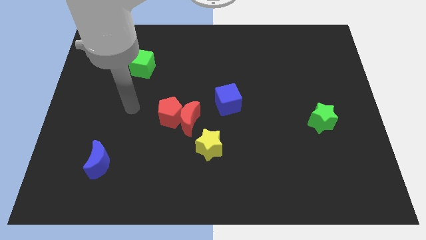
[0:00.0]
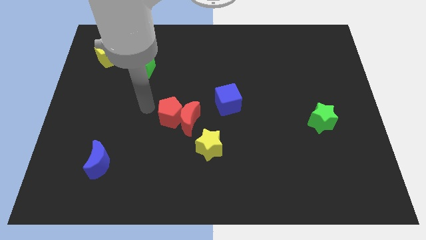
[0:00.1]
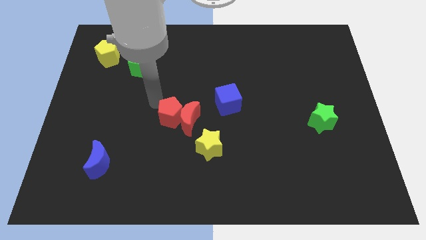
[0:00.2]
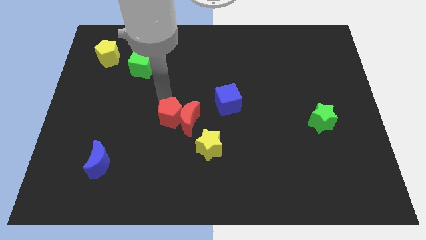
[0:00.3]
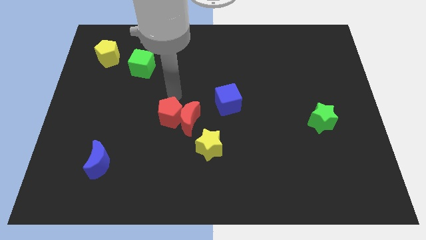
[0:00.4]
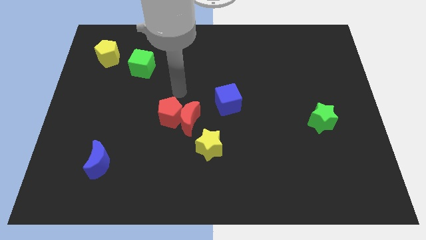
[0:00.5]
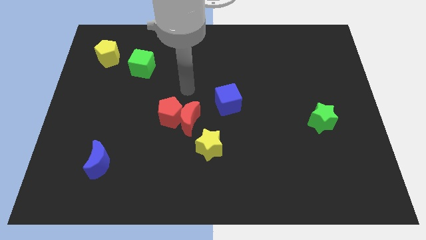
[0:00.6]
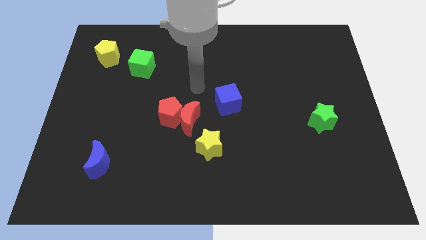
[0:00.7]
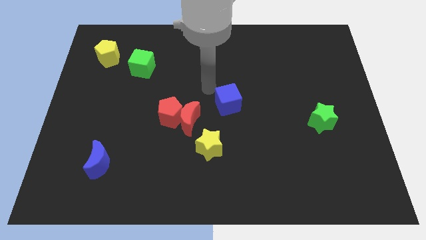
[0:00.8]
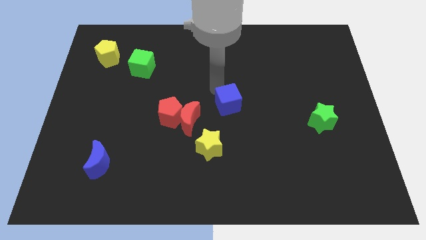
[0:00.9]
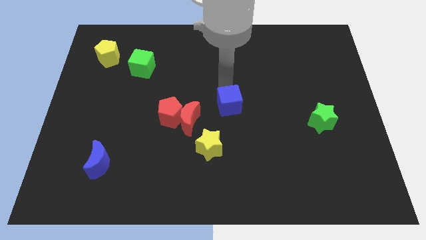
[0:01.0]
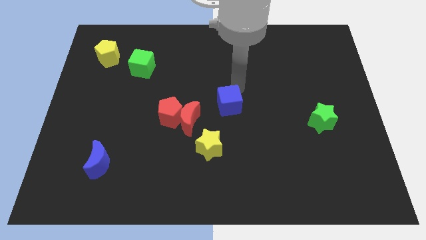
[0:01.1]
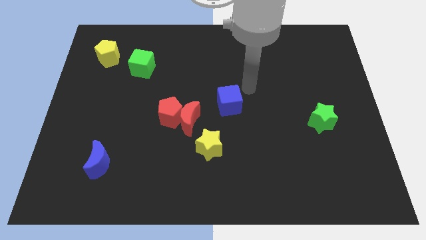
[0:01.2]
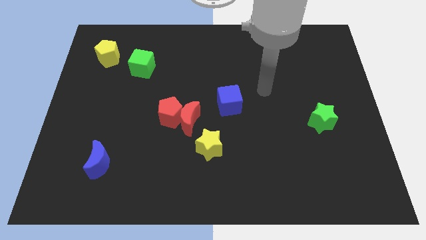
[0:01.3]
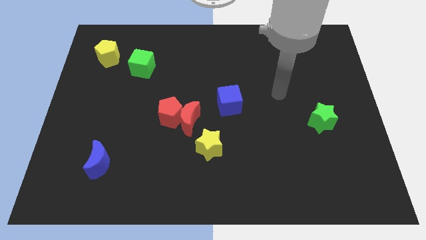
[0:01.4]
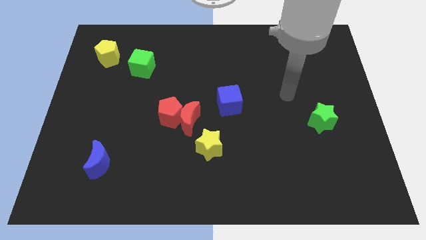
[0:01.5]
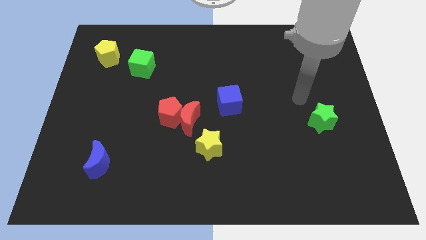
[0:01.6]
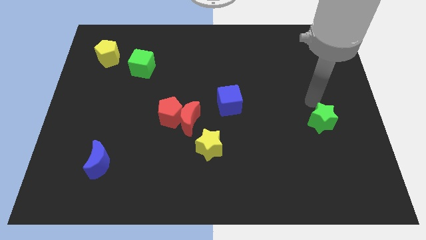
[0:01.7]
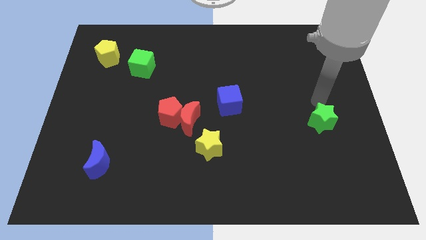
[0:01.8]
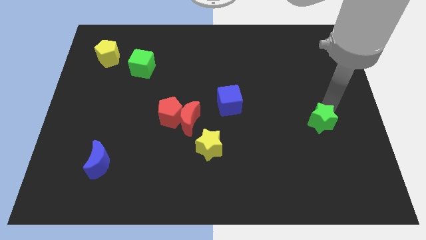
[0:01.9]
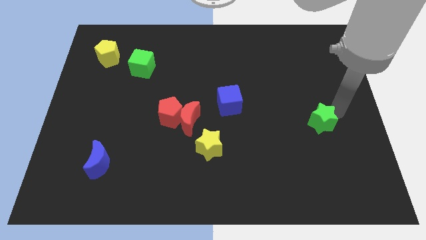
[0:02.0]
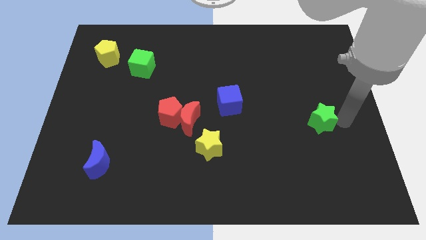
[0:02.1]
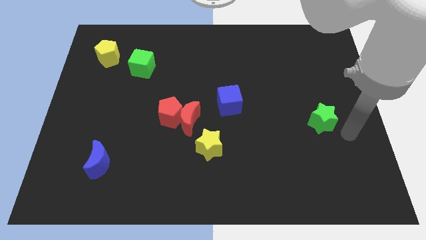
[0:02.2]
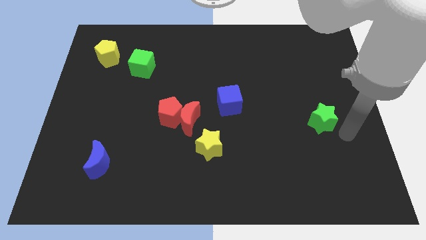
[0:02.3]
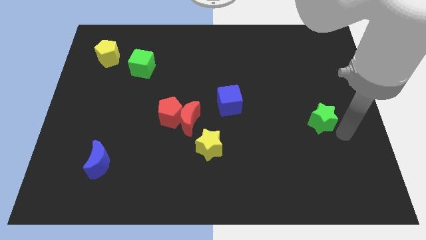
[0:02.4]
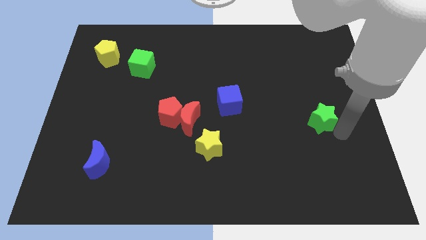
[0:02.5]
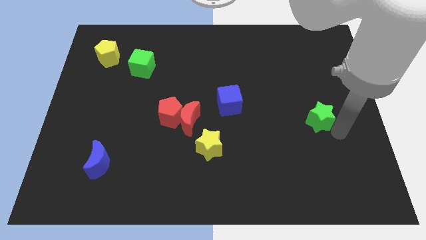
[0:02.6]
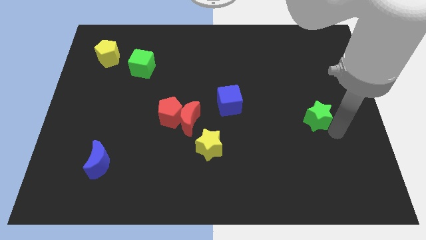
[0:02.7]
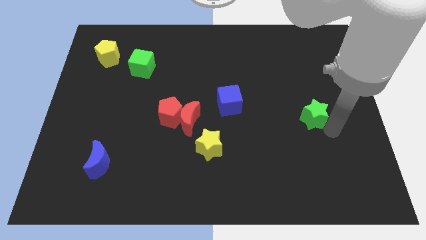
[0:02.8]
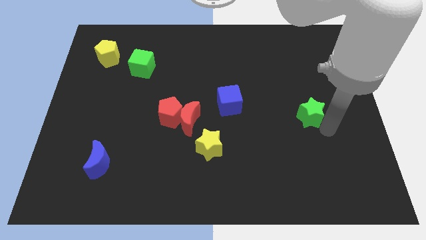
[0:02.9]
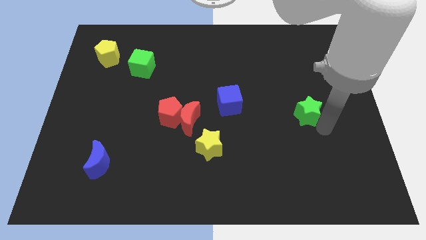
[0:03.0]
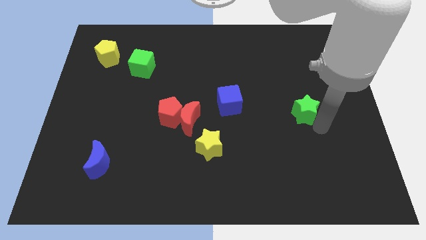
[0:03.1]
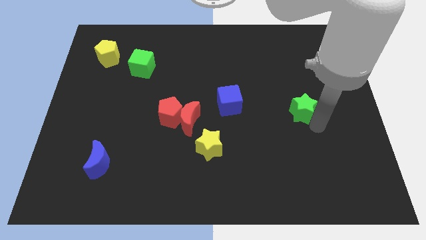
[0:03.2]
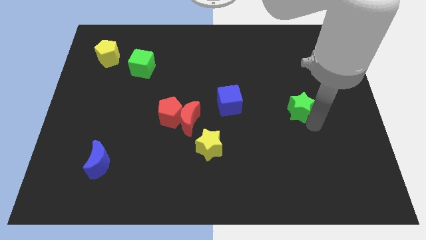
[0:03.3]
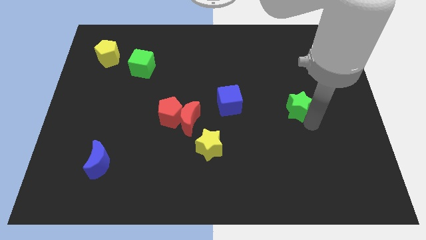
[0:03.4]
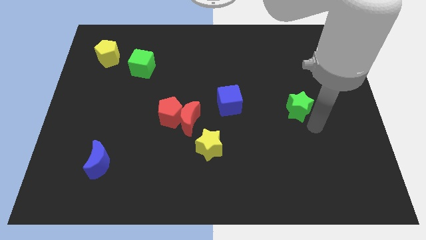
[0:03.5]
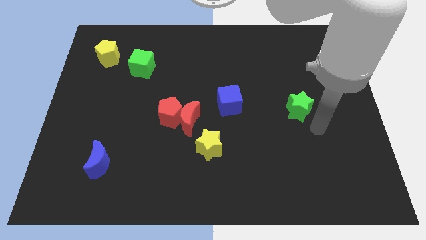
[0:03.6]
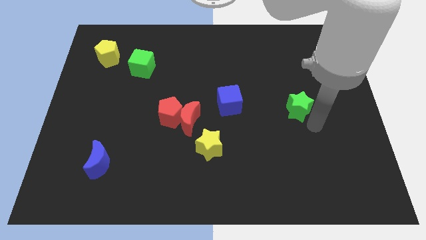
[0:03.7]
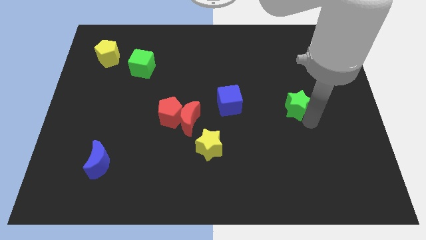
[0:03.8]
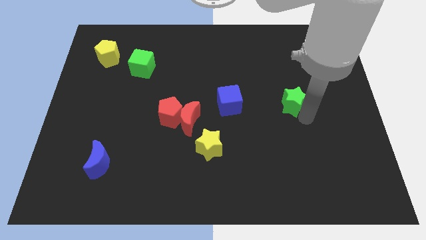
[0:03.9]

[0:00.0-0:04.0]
slide the green star up and then left somewhat

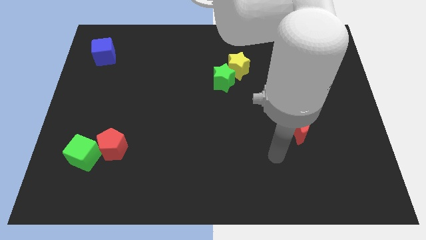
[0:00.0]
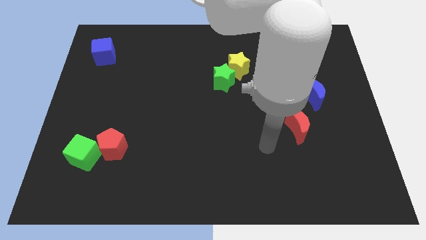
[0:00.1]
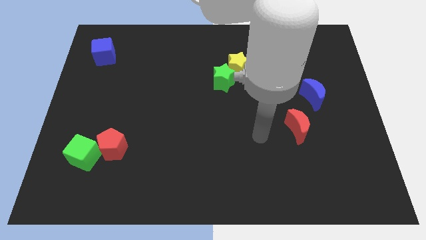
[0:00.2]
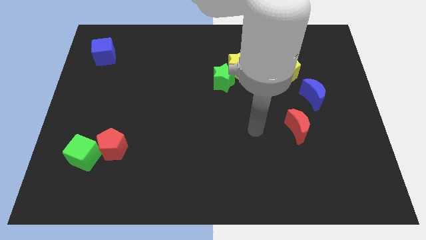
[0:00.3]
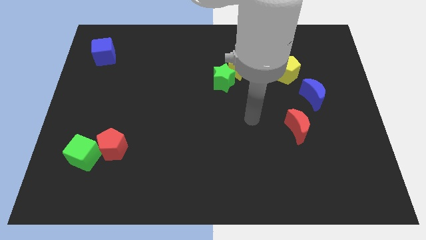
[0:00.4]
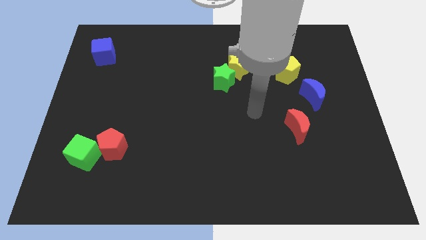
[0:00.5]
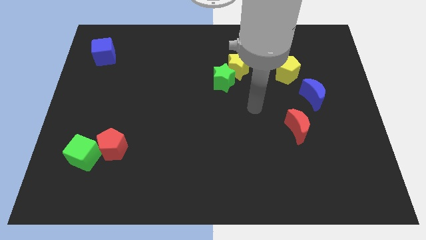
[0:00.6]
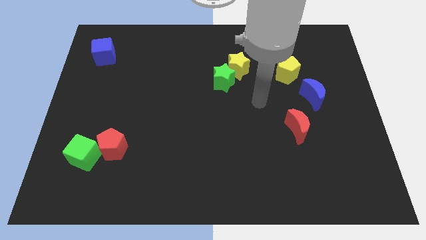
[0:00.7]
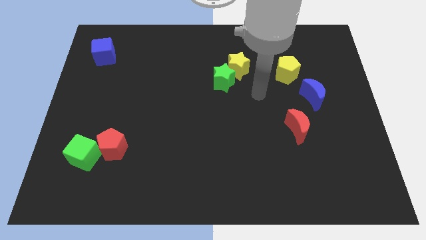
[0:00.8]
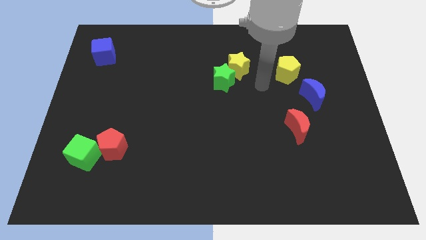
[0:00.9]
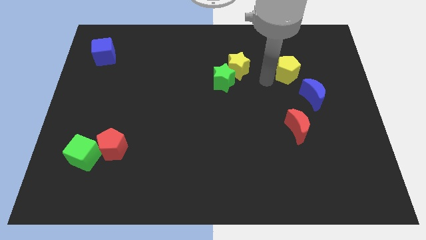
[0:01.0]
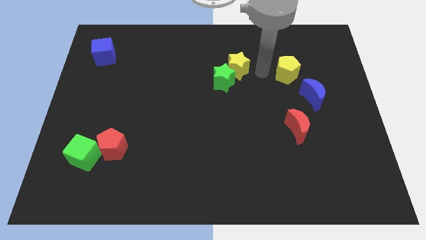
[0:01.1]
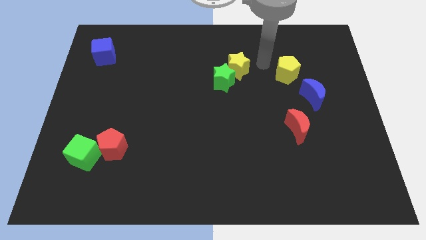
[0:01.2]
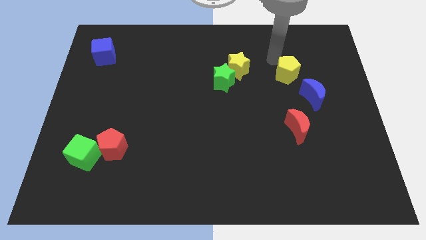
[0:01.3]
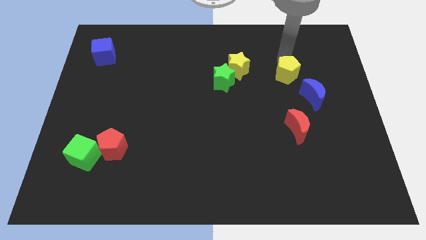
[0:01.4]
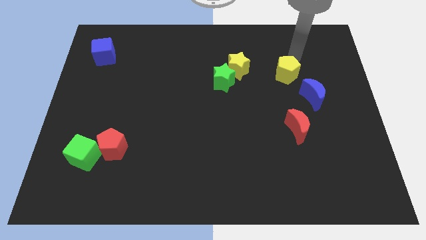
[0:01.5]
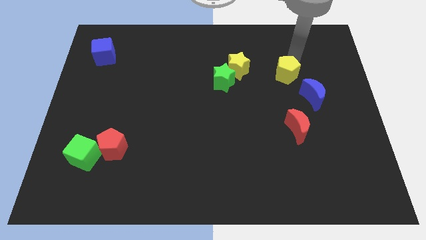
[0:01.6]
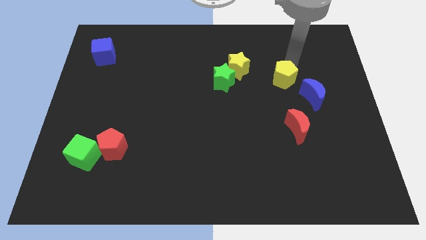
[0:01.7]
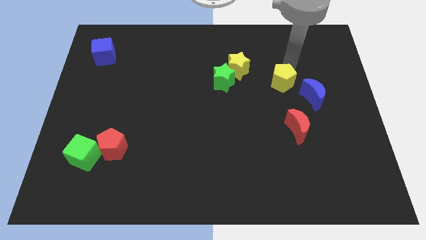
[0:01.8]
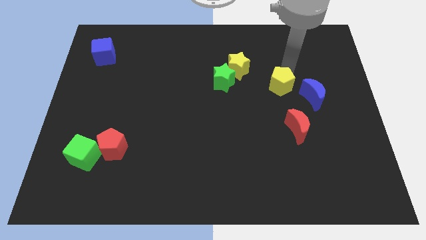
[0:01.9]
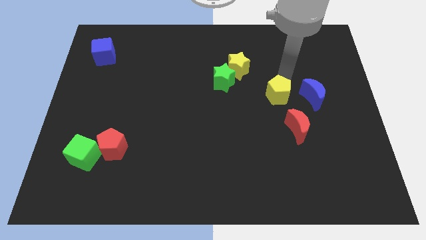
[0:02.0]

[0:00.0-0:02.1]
push the yellow pentagon a bit down and left

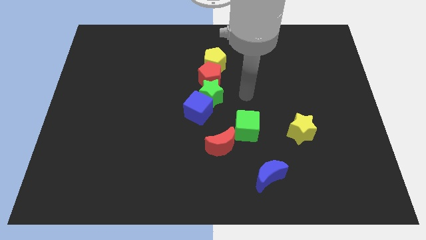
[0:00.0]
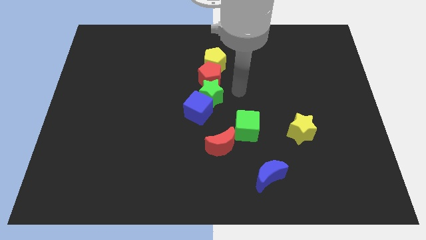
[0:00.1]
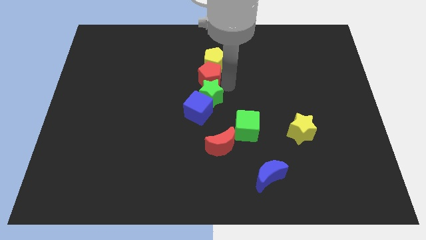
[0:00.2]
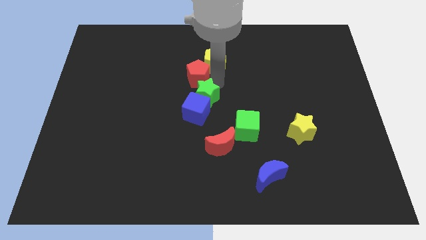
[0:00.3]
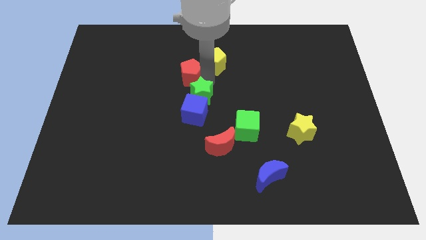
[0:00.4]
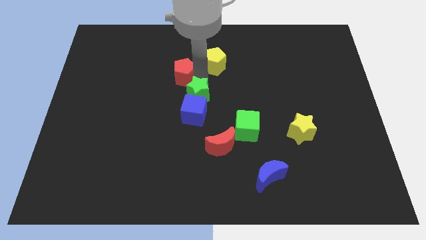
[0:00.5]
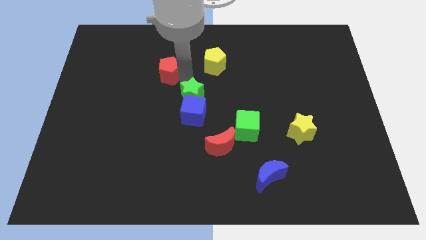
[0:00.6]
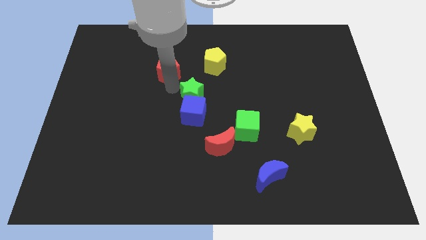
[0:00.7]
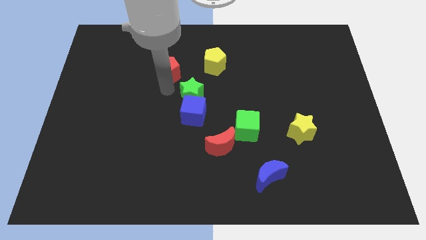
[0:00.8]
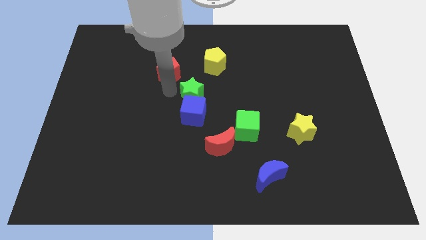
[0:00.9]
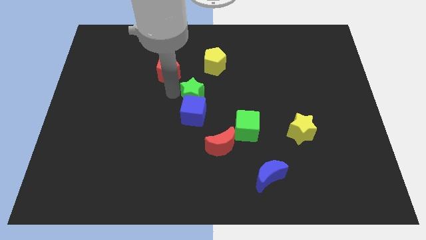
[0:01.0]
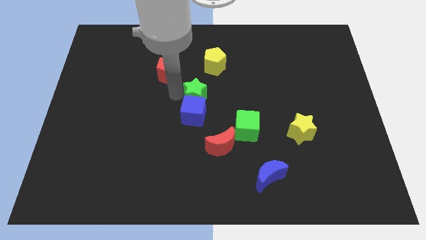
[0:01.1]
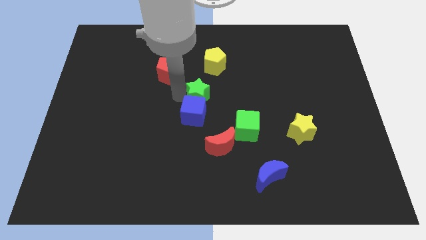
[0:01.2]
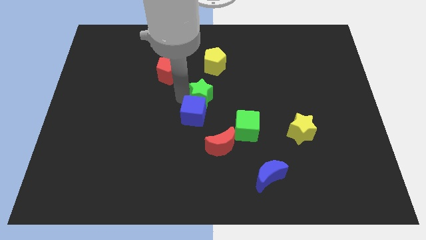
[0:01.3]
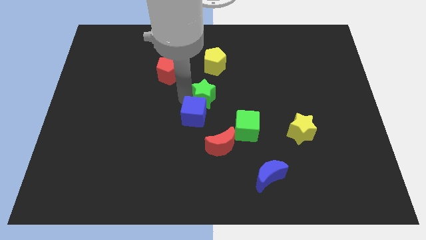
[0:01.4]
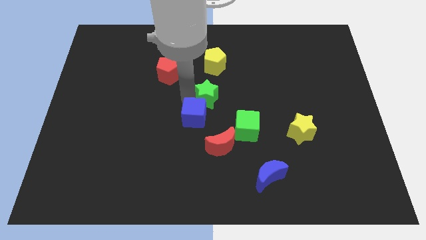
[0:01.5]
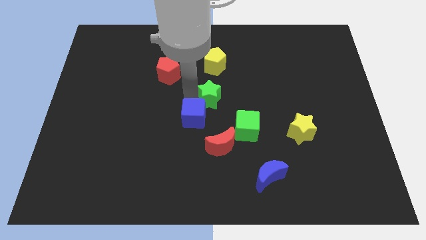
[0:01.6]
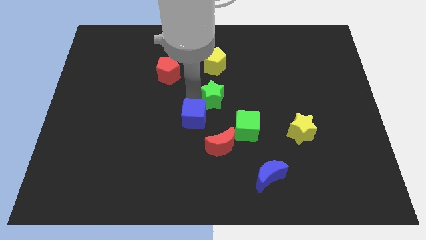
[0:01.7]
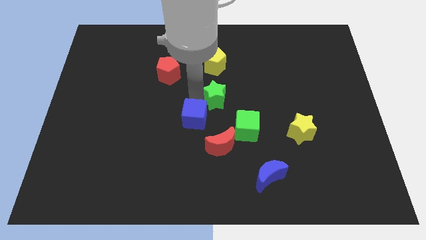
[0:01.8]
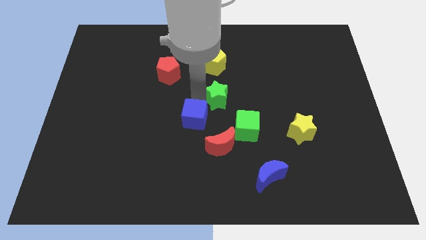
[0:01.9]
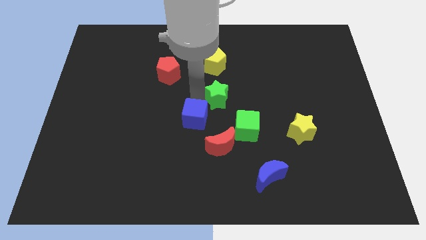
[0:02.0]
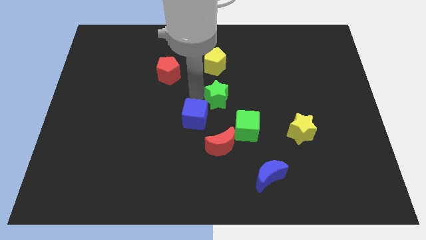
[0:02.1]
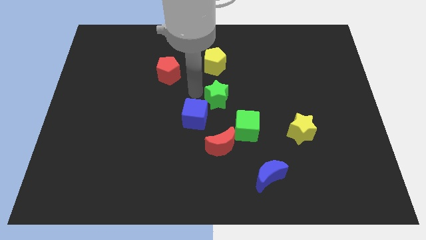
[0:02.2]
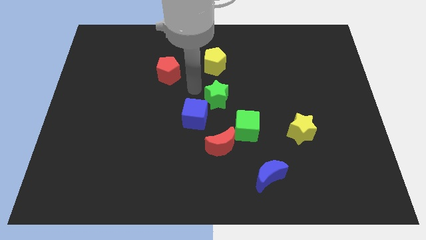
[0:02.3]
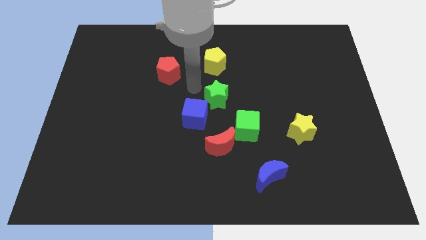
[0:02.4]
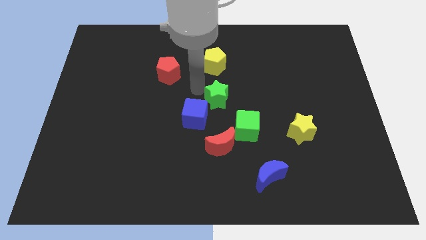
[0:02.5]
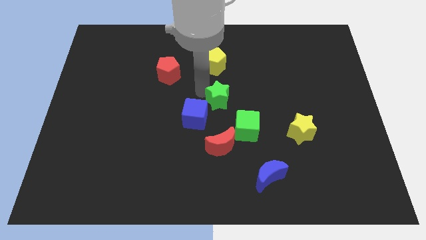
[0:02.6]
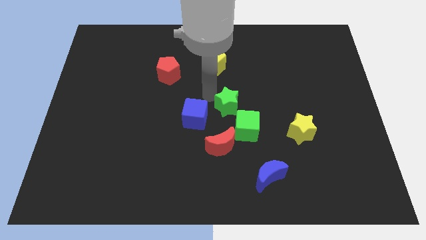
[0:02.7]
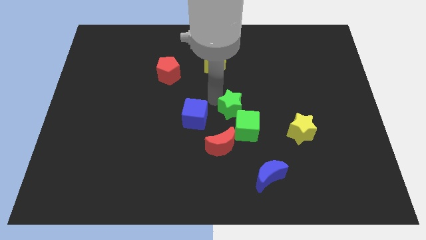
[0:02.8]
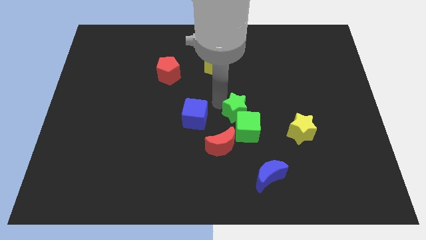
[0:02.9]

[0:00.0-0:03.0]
slide the green star a little diagonally downwards and right
